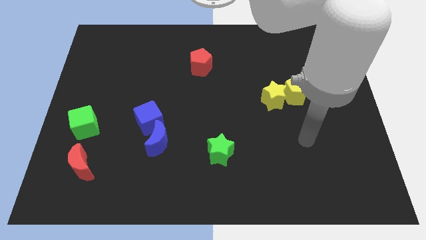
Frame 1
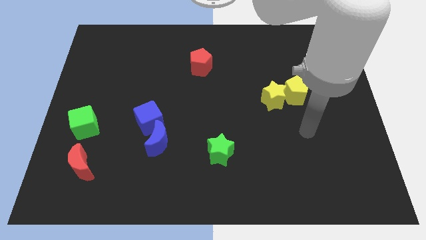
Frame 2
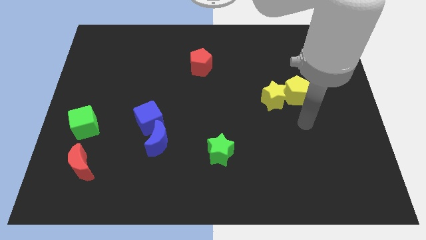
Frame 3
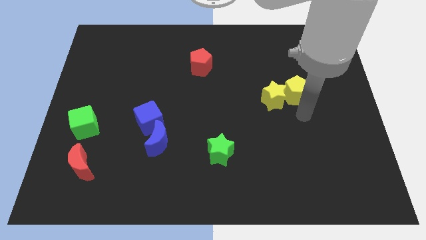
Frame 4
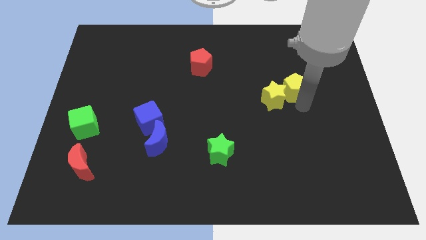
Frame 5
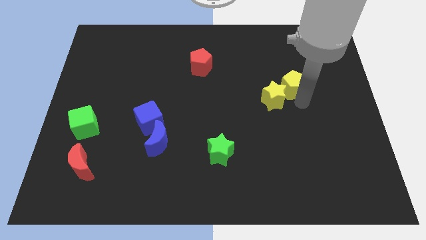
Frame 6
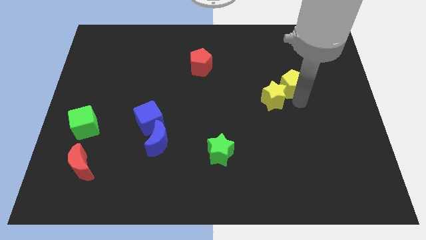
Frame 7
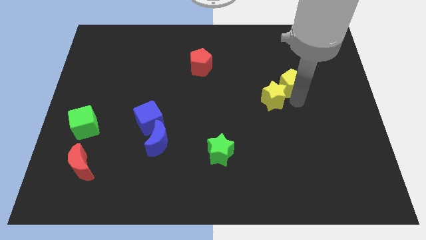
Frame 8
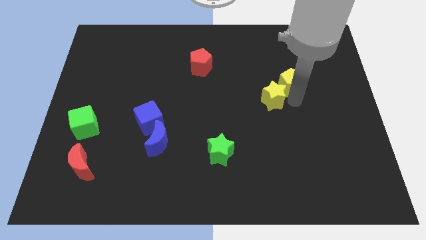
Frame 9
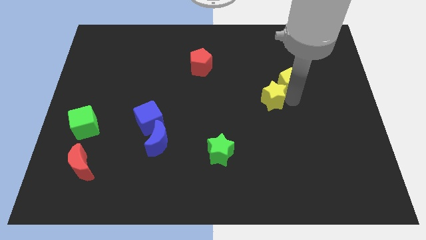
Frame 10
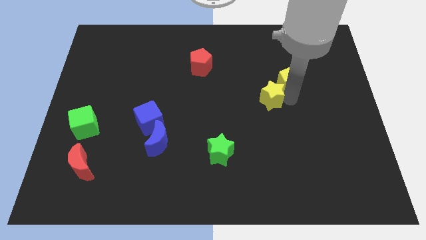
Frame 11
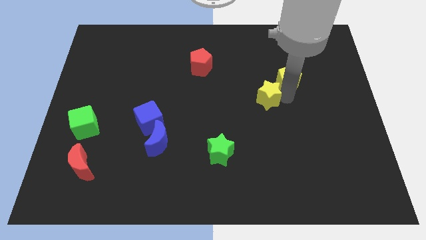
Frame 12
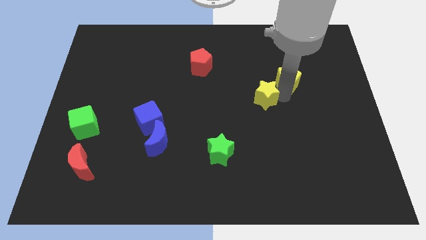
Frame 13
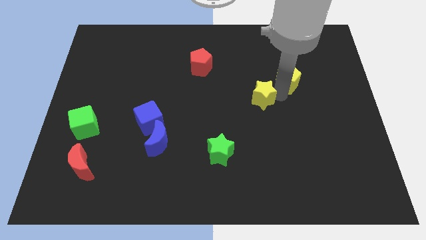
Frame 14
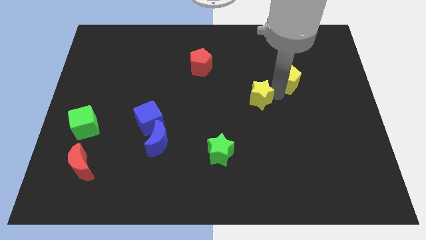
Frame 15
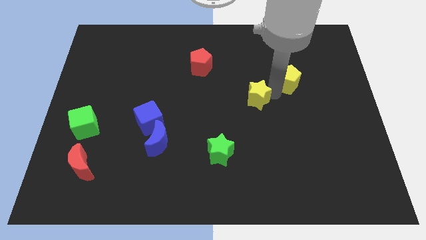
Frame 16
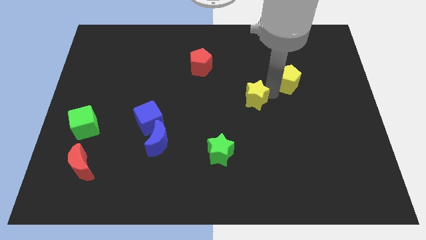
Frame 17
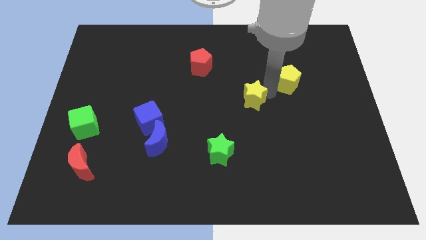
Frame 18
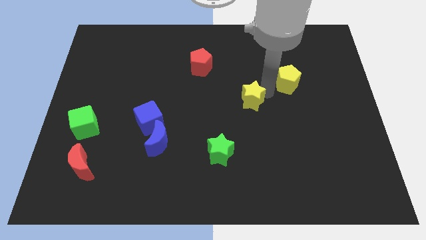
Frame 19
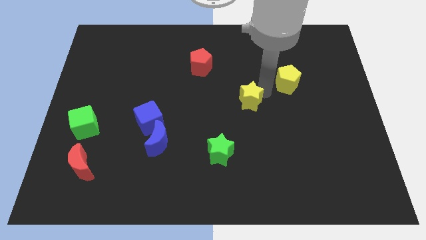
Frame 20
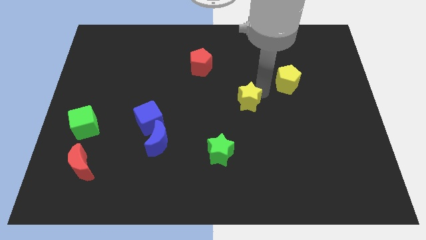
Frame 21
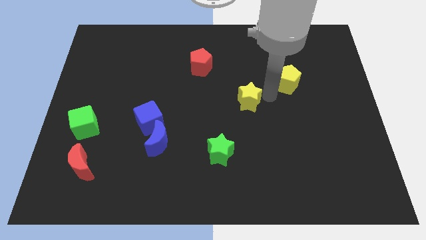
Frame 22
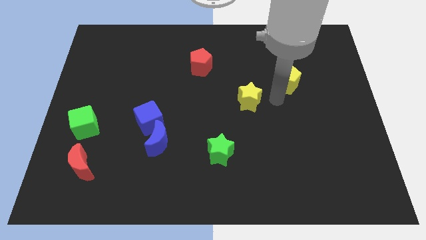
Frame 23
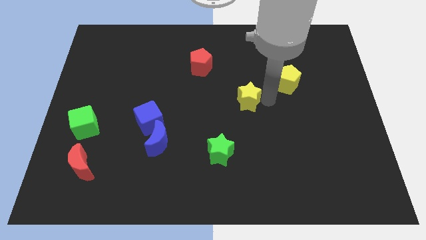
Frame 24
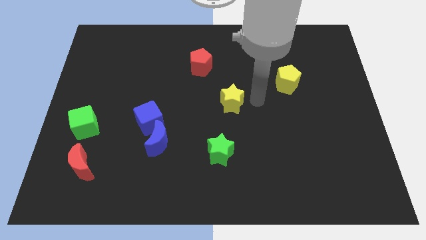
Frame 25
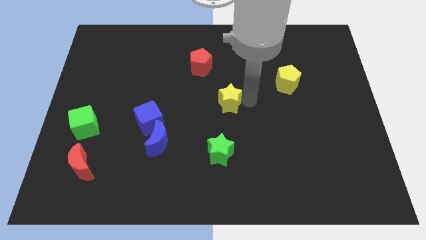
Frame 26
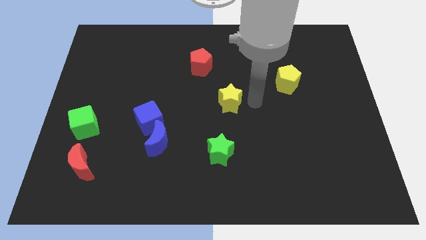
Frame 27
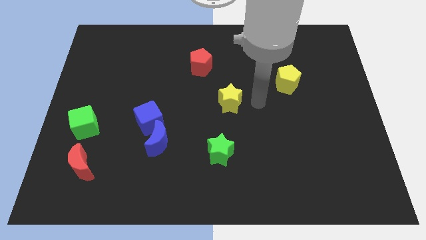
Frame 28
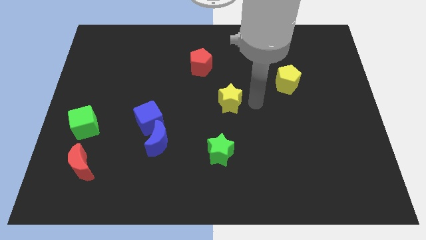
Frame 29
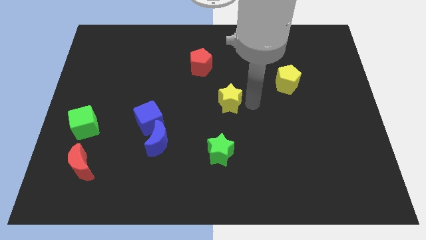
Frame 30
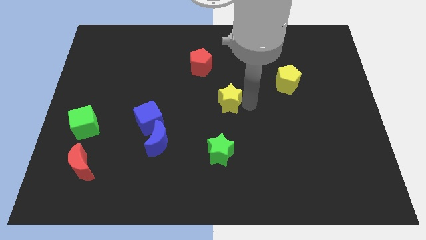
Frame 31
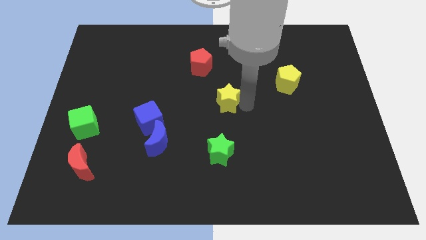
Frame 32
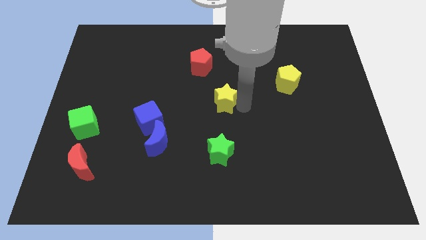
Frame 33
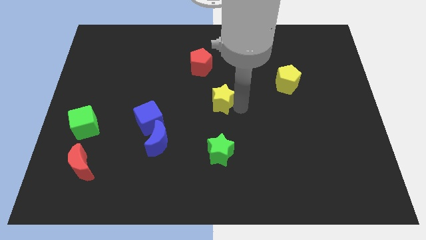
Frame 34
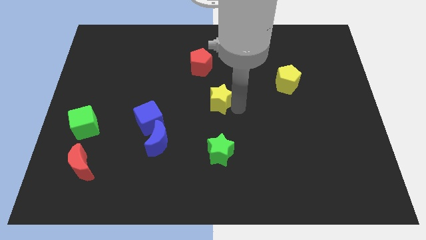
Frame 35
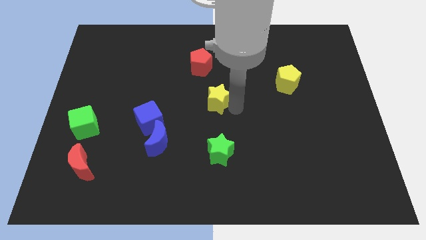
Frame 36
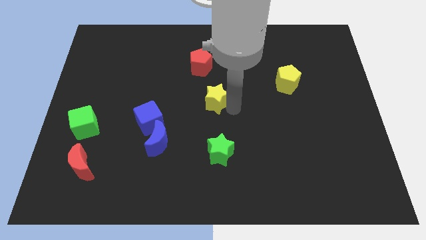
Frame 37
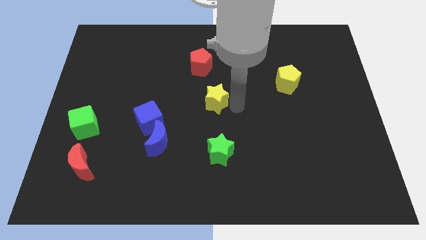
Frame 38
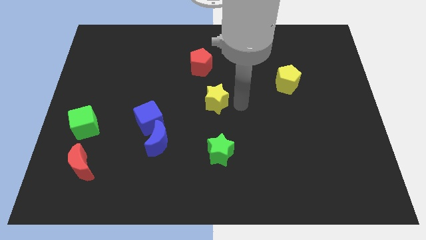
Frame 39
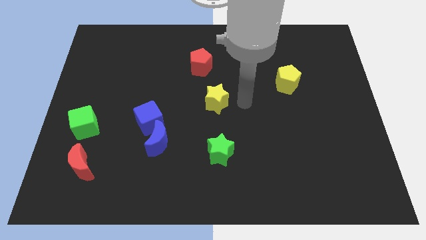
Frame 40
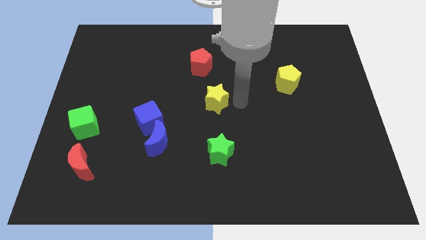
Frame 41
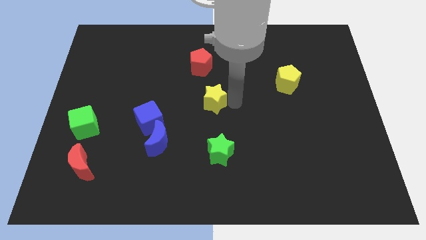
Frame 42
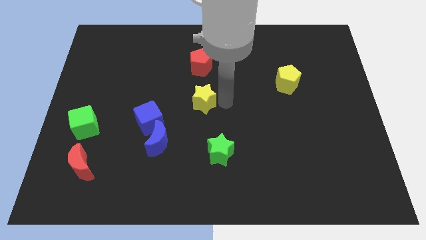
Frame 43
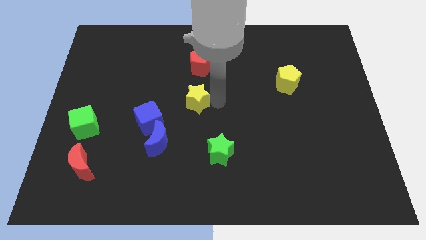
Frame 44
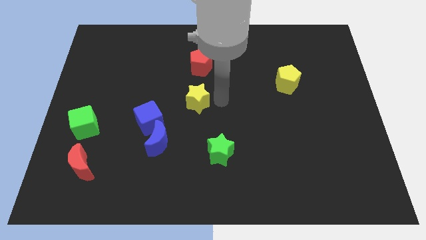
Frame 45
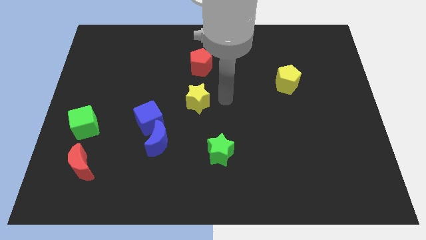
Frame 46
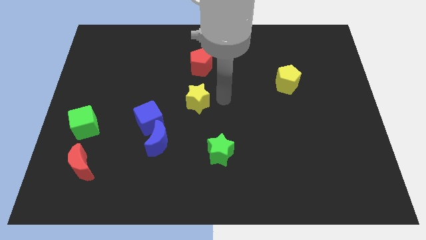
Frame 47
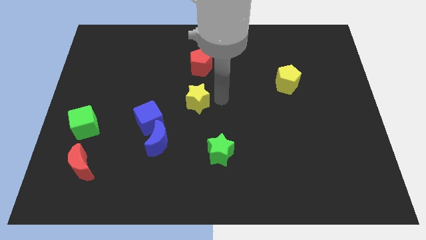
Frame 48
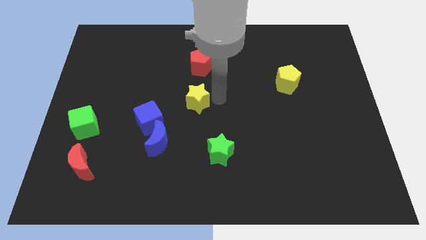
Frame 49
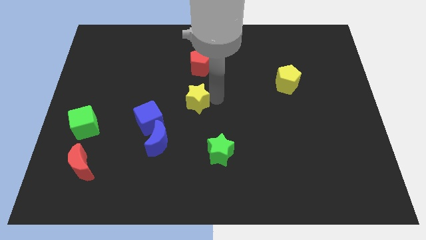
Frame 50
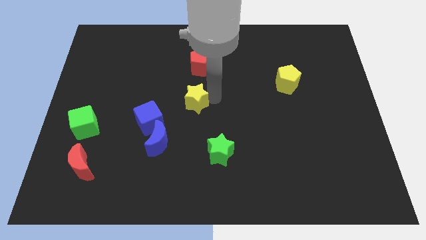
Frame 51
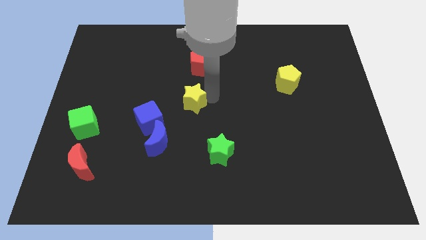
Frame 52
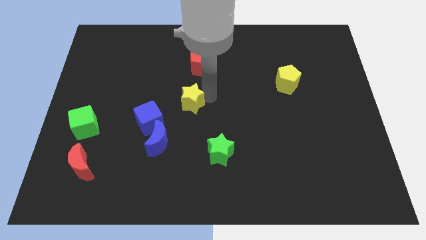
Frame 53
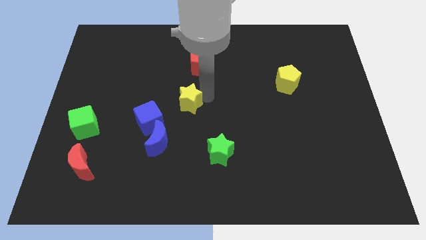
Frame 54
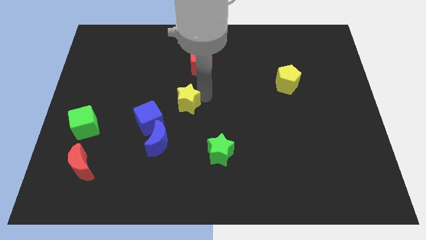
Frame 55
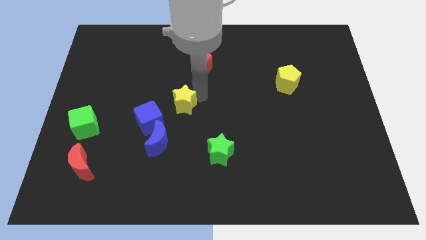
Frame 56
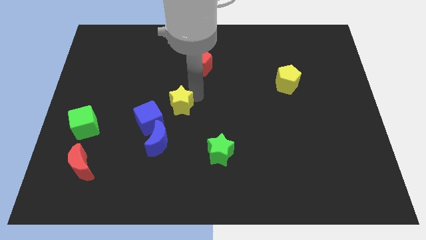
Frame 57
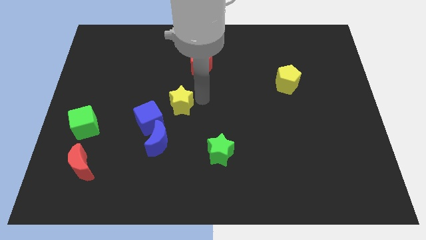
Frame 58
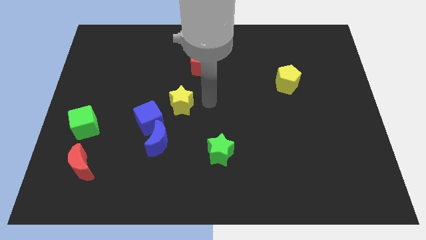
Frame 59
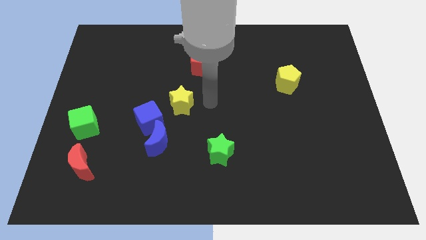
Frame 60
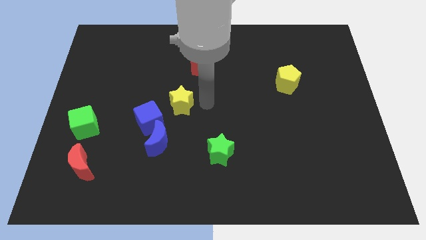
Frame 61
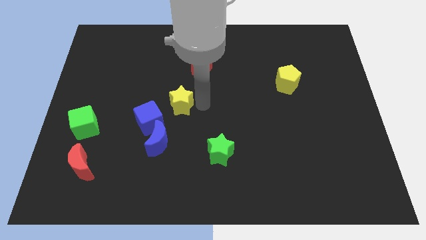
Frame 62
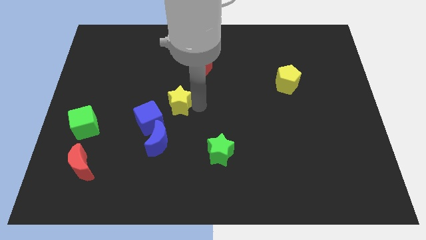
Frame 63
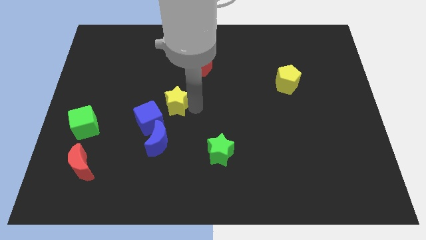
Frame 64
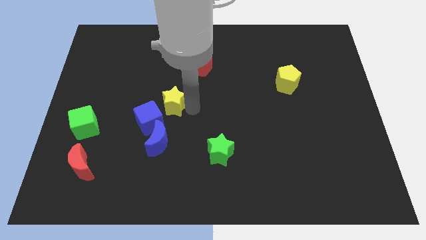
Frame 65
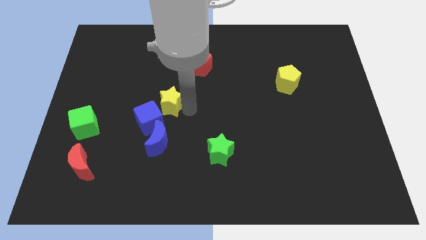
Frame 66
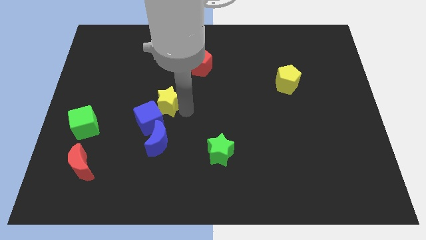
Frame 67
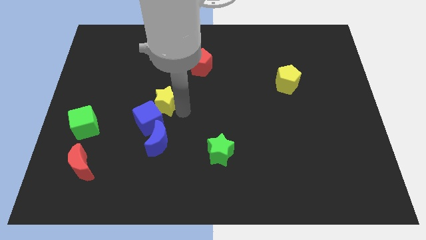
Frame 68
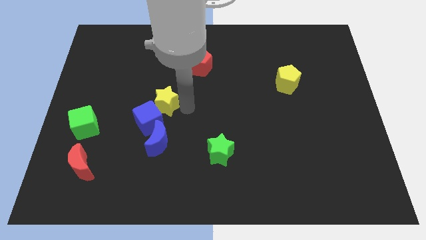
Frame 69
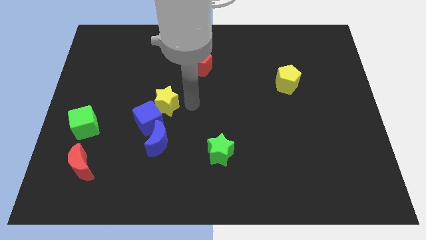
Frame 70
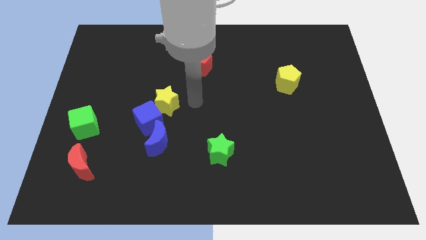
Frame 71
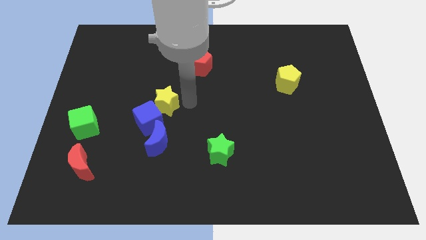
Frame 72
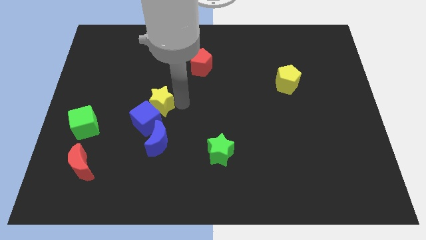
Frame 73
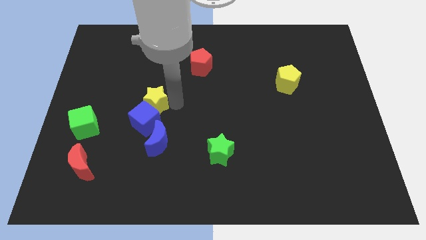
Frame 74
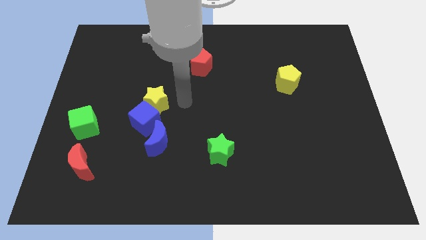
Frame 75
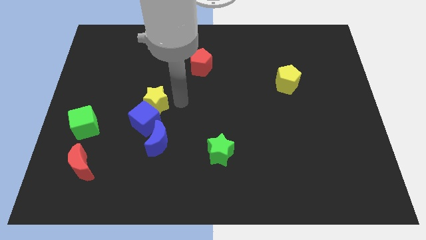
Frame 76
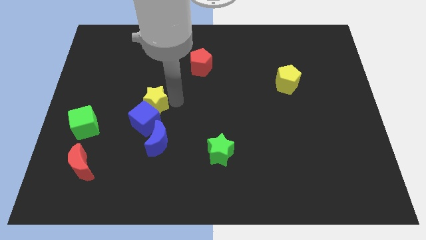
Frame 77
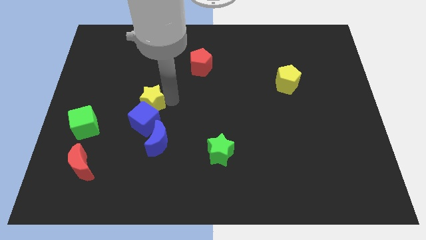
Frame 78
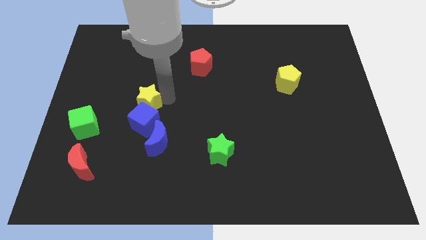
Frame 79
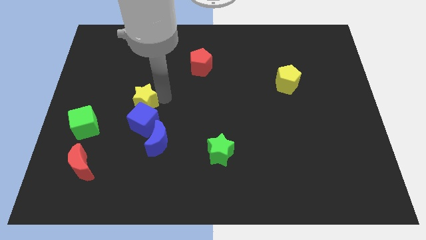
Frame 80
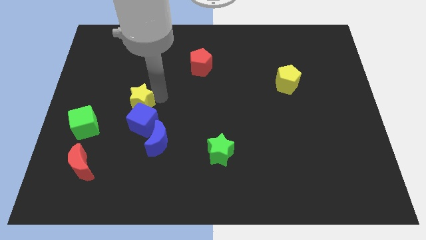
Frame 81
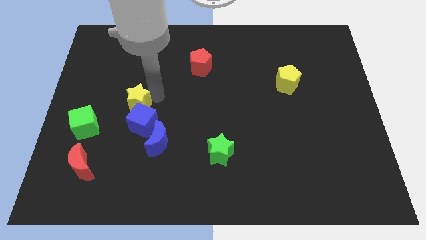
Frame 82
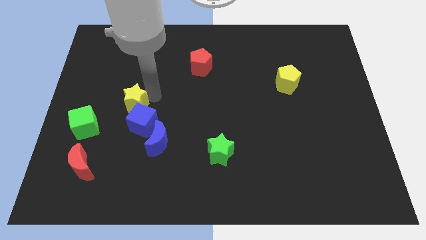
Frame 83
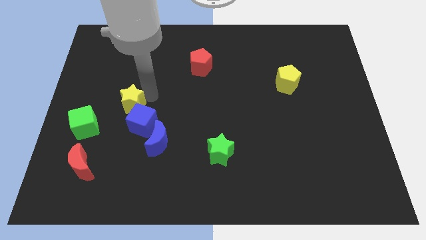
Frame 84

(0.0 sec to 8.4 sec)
slide the yellow star to the top right of the green cube
